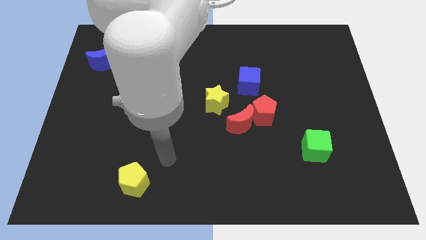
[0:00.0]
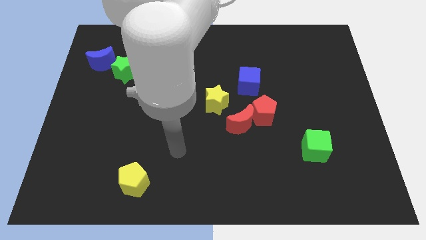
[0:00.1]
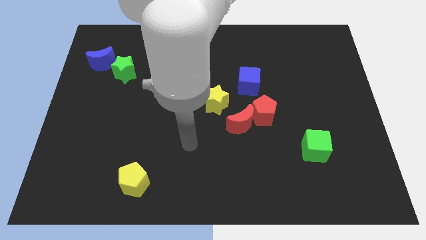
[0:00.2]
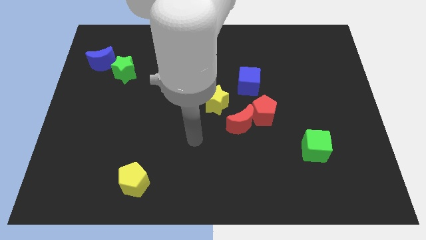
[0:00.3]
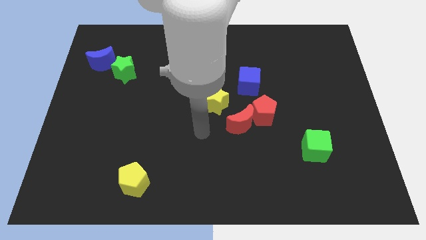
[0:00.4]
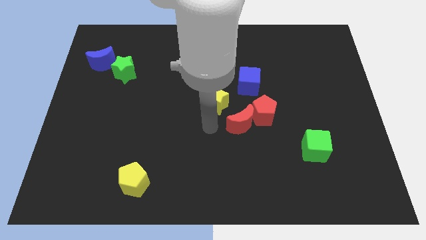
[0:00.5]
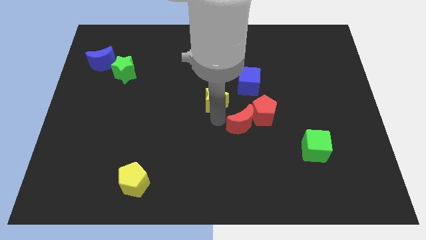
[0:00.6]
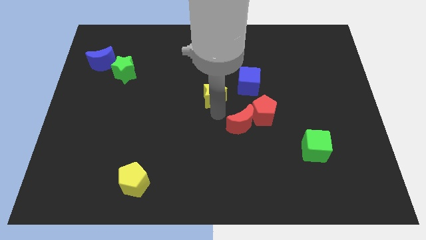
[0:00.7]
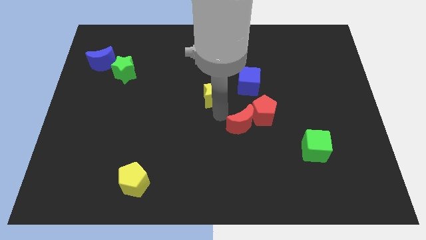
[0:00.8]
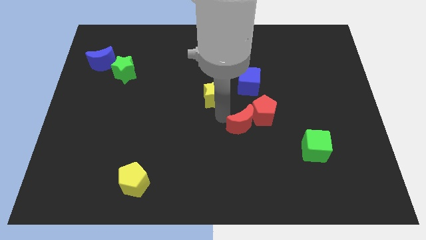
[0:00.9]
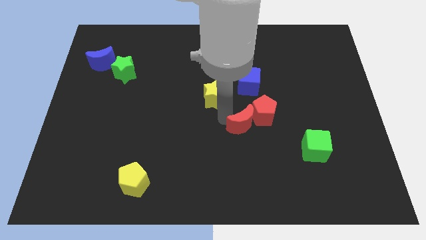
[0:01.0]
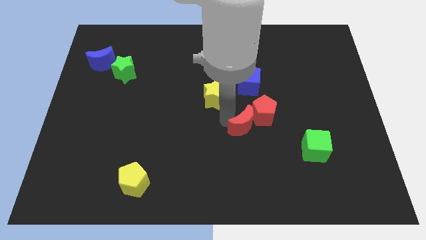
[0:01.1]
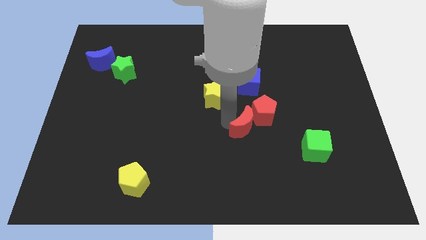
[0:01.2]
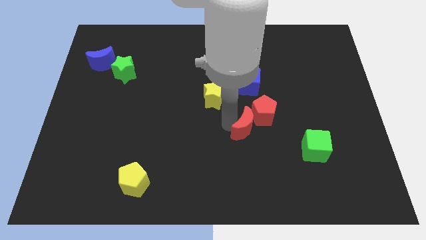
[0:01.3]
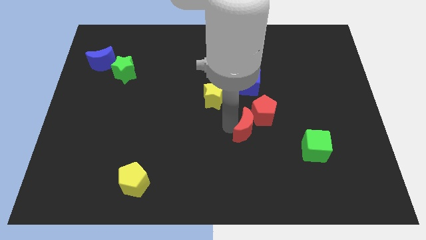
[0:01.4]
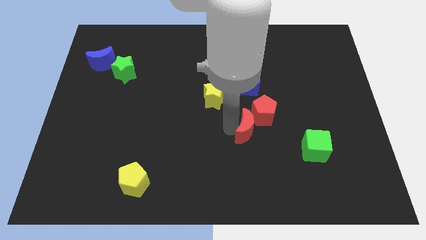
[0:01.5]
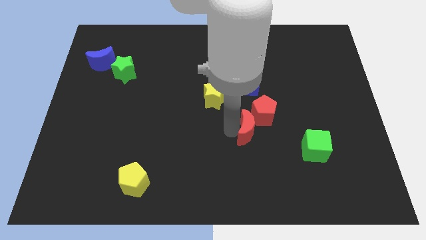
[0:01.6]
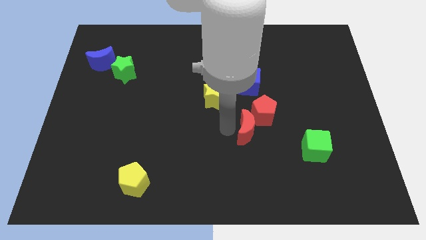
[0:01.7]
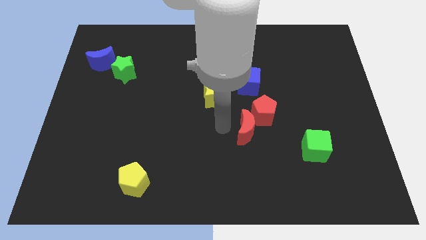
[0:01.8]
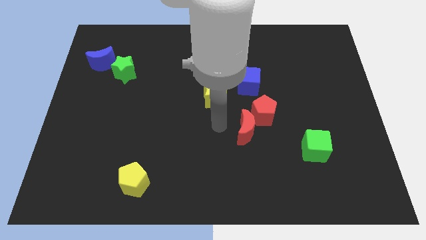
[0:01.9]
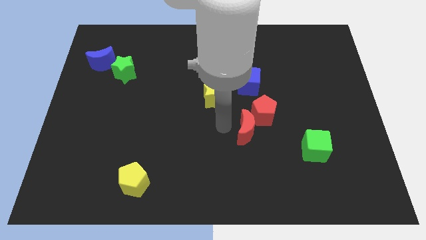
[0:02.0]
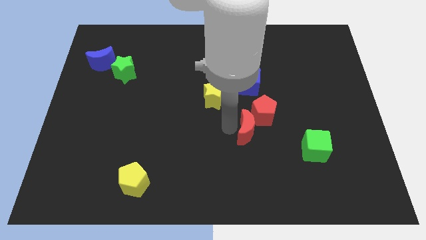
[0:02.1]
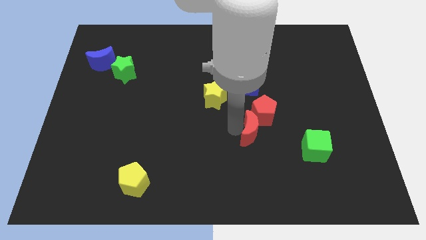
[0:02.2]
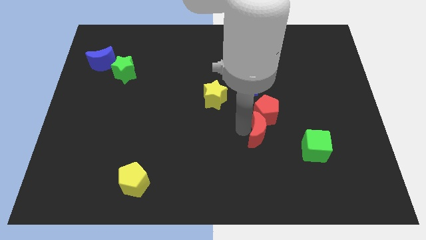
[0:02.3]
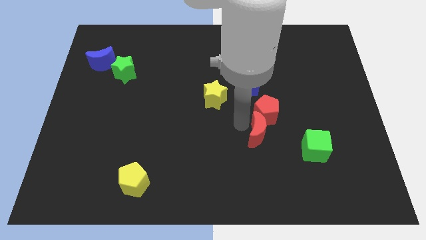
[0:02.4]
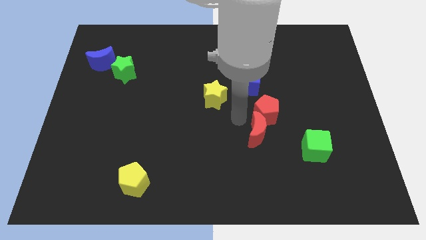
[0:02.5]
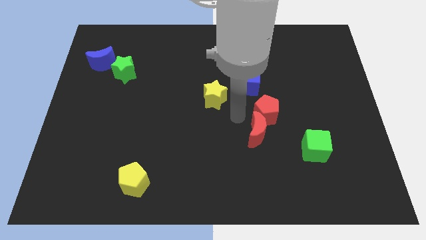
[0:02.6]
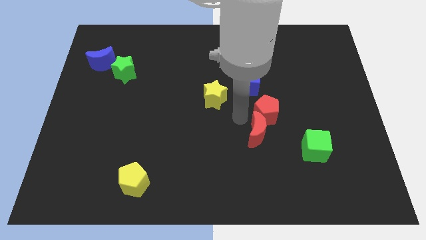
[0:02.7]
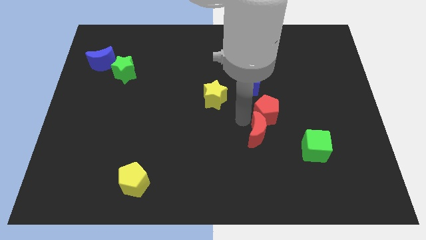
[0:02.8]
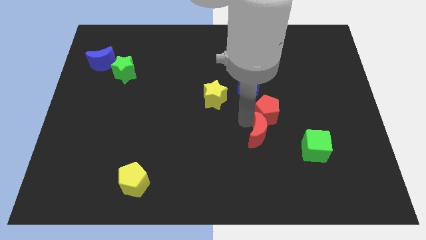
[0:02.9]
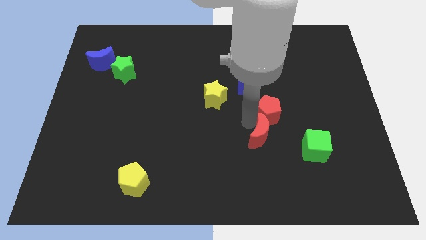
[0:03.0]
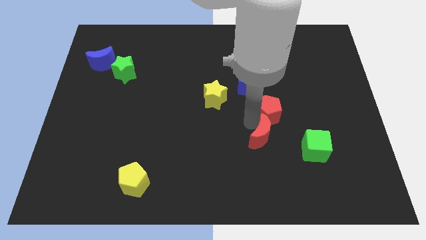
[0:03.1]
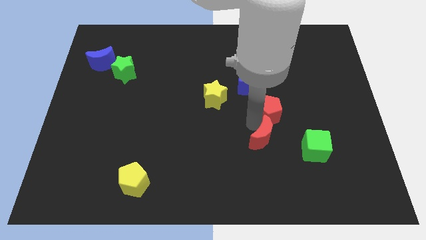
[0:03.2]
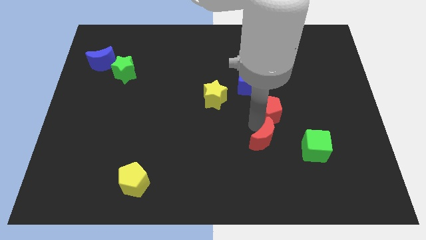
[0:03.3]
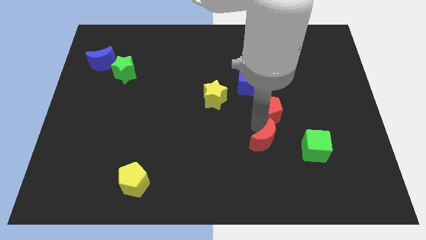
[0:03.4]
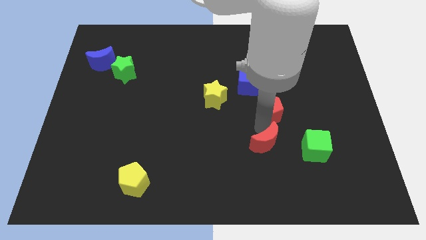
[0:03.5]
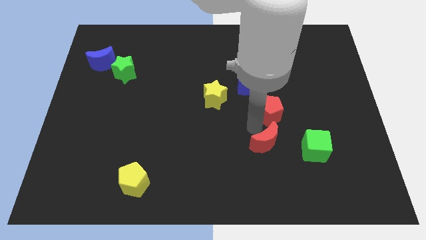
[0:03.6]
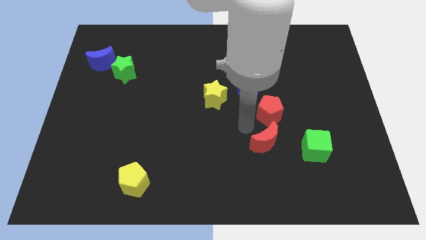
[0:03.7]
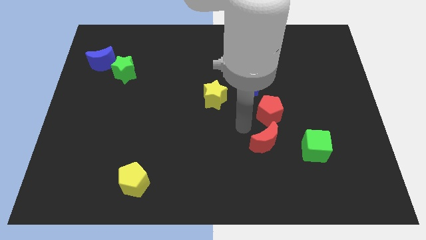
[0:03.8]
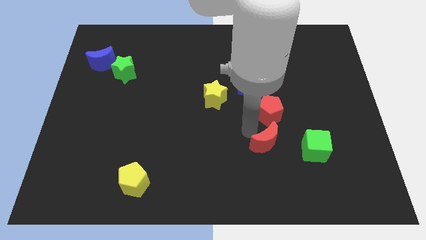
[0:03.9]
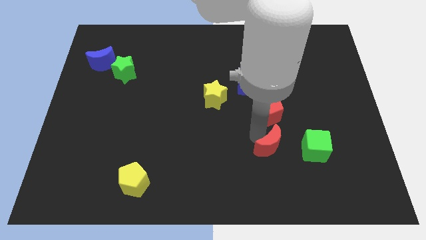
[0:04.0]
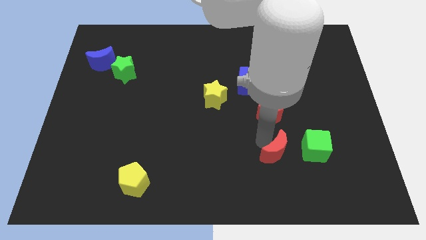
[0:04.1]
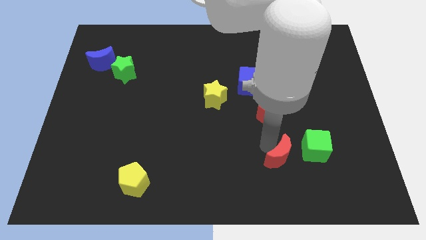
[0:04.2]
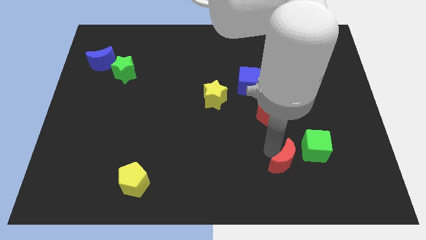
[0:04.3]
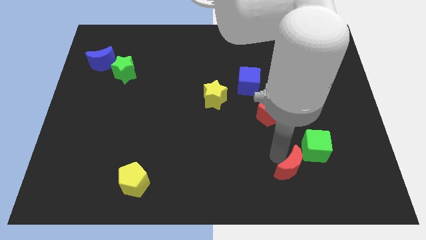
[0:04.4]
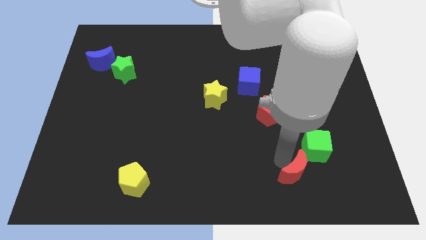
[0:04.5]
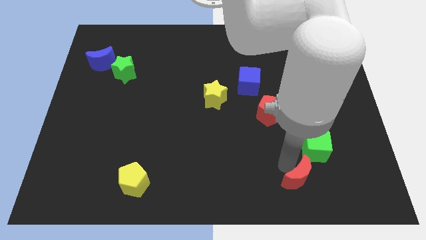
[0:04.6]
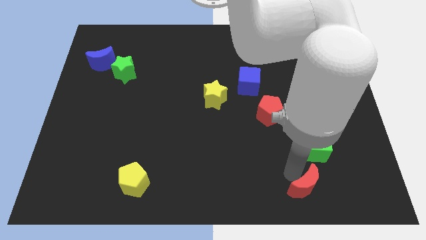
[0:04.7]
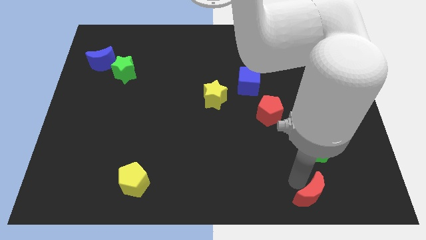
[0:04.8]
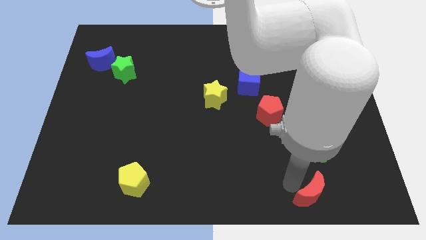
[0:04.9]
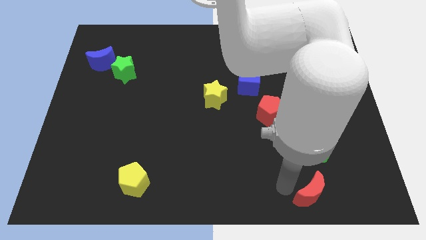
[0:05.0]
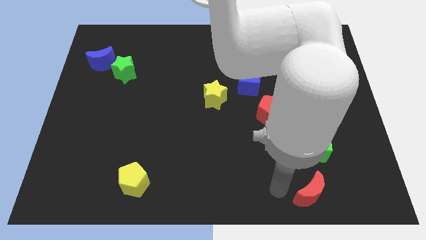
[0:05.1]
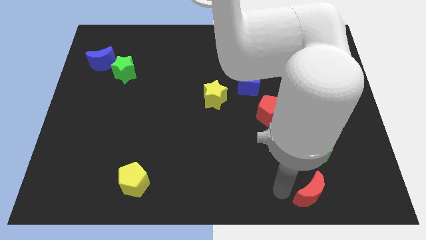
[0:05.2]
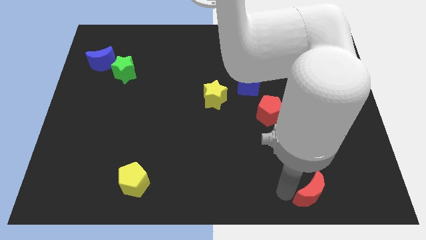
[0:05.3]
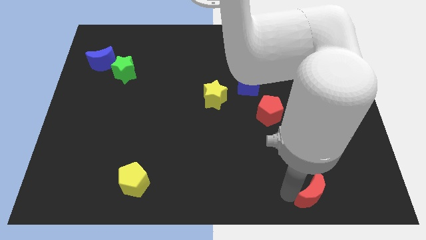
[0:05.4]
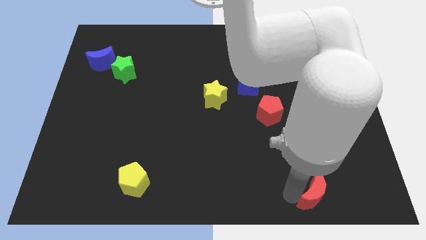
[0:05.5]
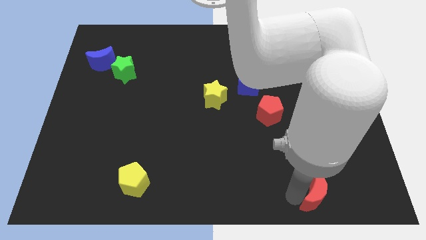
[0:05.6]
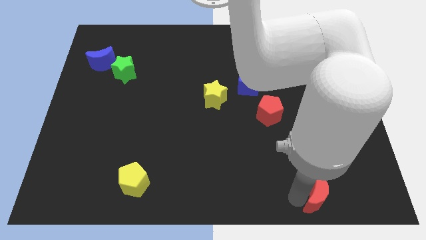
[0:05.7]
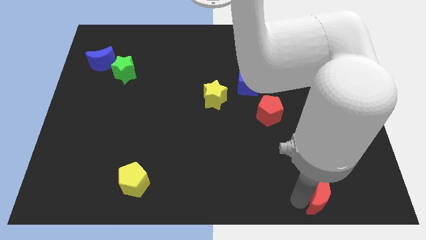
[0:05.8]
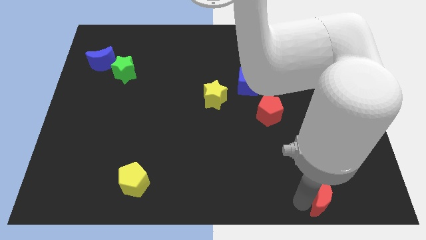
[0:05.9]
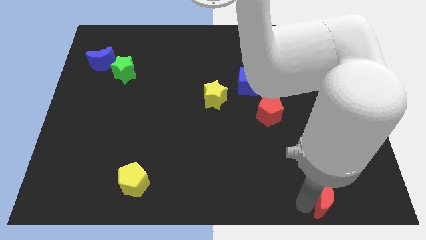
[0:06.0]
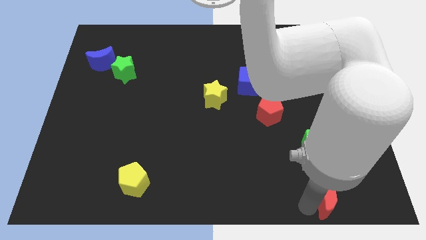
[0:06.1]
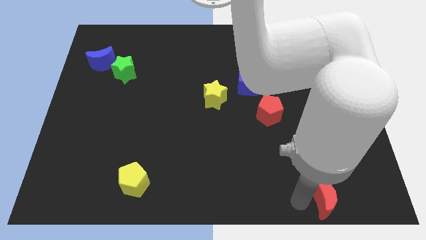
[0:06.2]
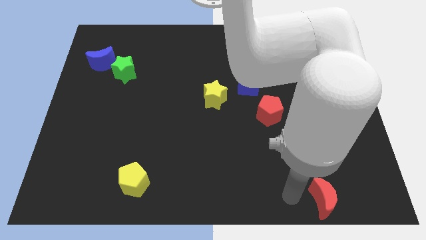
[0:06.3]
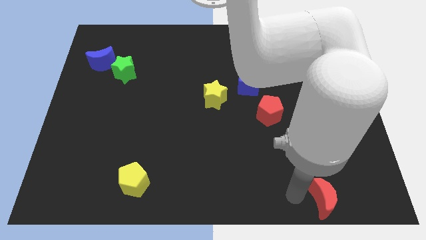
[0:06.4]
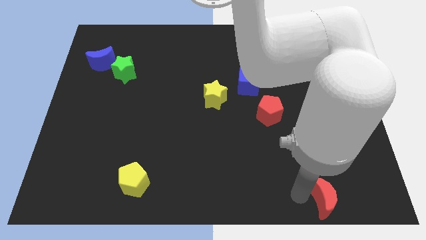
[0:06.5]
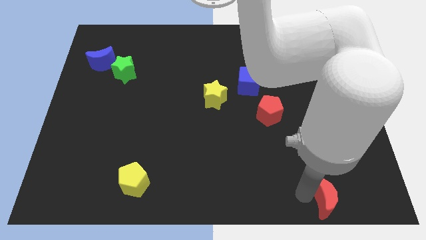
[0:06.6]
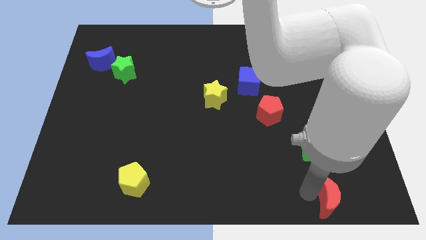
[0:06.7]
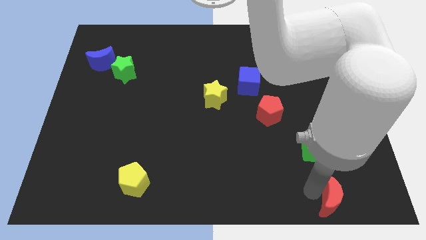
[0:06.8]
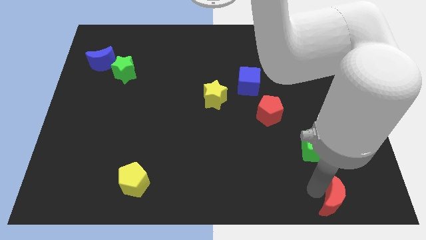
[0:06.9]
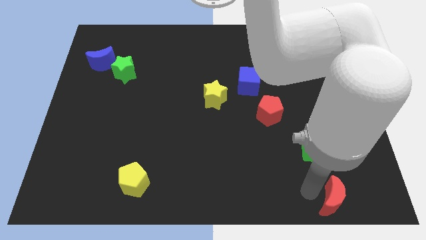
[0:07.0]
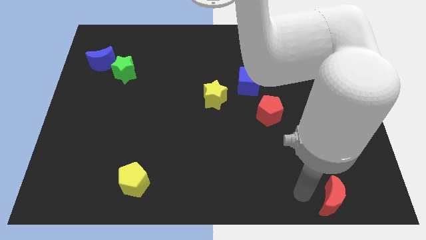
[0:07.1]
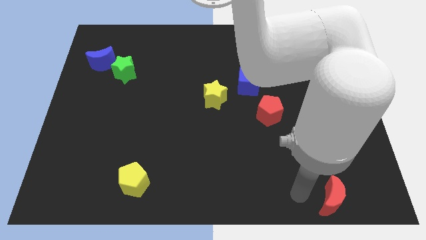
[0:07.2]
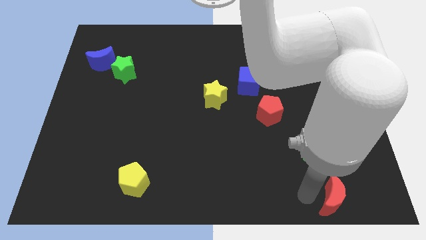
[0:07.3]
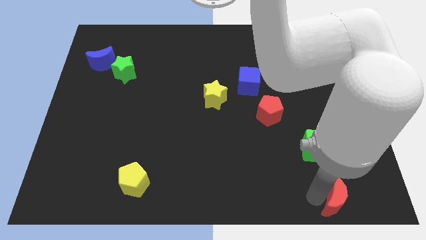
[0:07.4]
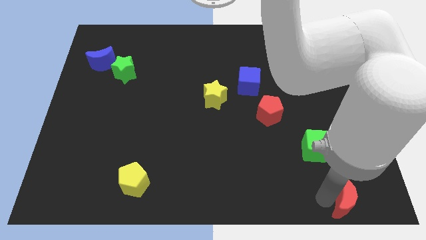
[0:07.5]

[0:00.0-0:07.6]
push the red moon to the bottom right corner
